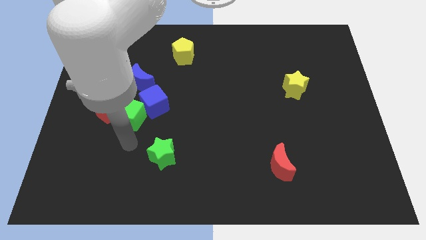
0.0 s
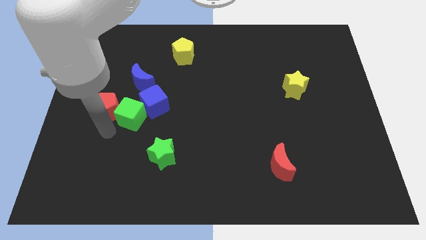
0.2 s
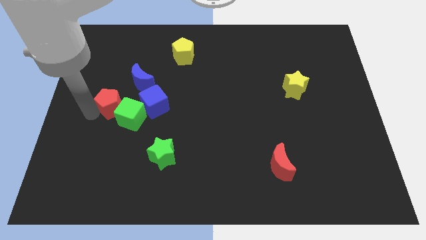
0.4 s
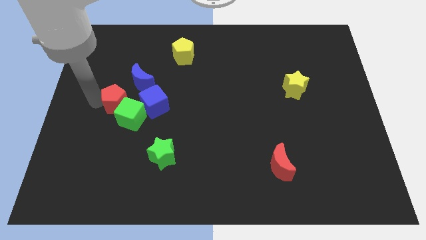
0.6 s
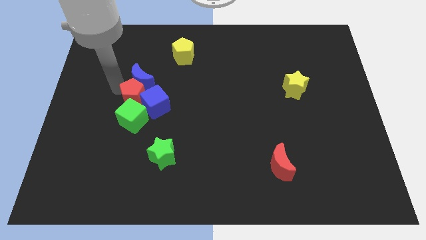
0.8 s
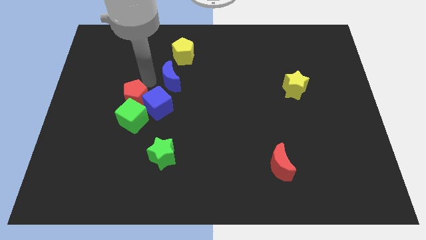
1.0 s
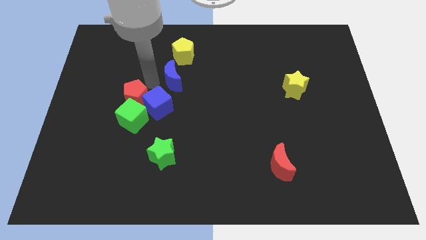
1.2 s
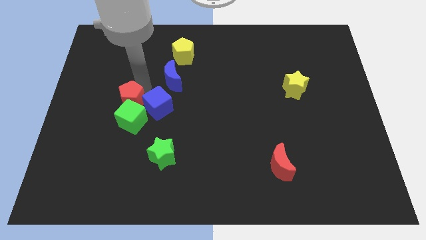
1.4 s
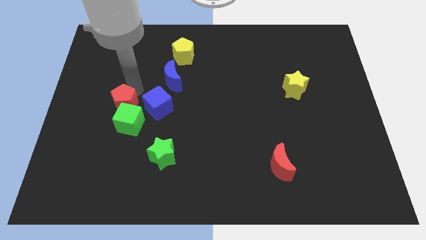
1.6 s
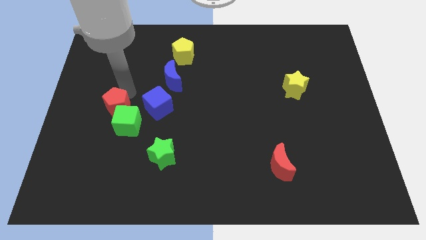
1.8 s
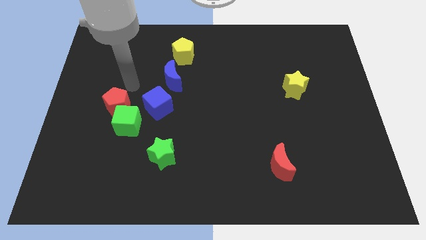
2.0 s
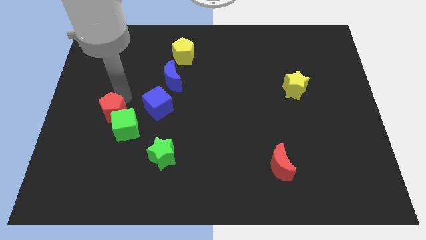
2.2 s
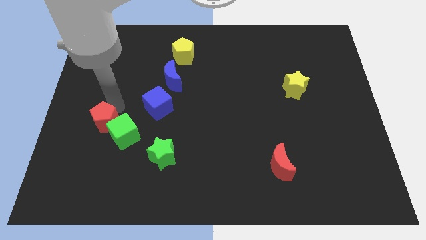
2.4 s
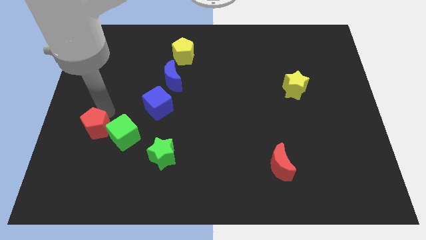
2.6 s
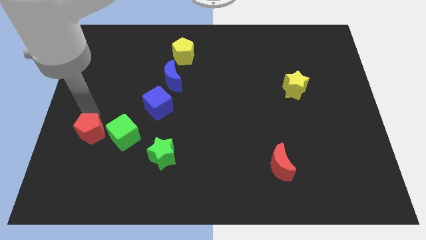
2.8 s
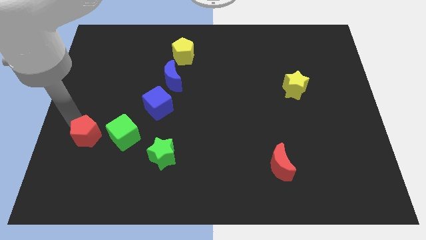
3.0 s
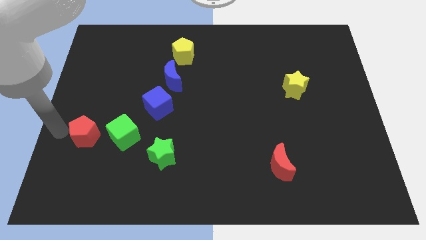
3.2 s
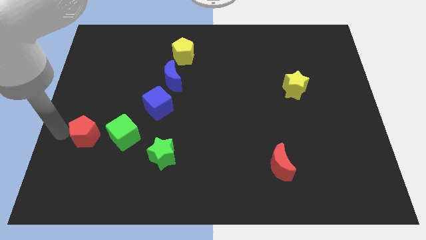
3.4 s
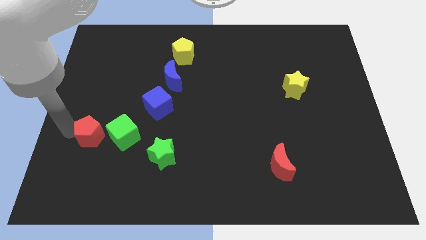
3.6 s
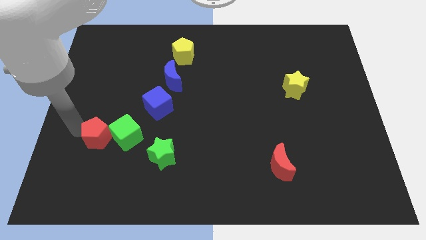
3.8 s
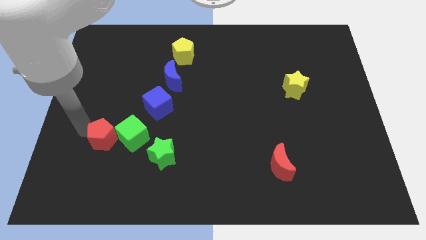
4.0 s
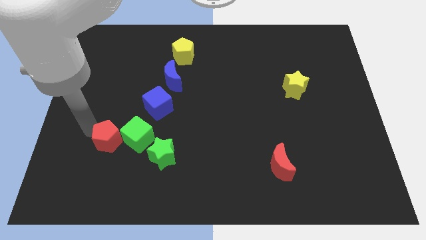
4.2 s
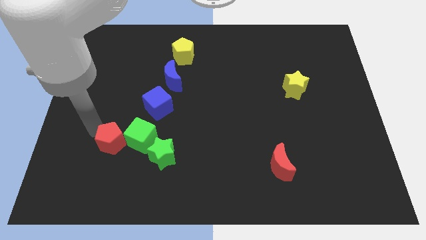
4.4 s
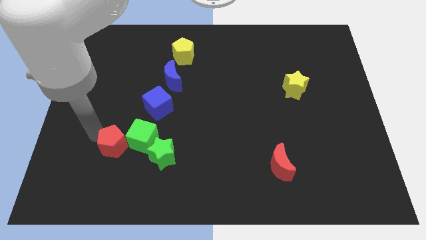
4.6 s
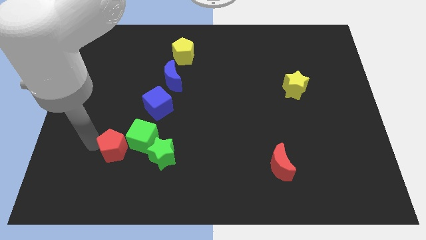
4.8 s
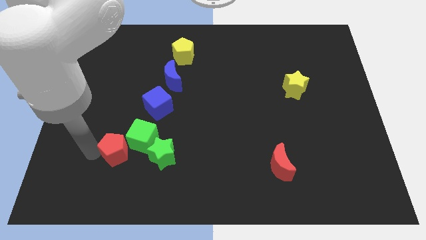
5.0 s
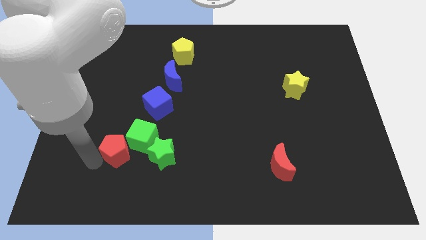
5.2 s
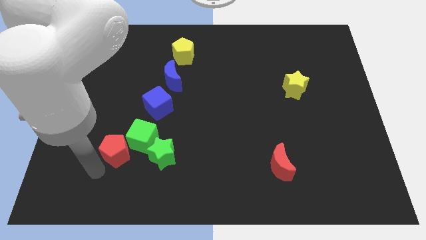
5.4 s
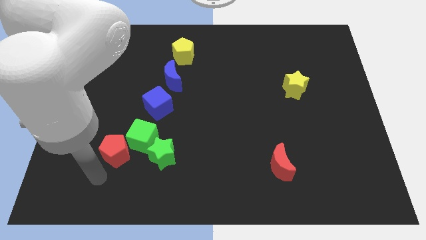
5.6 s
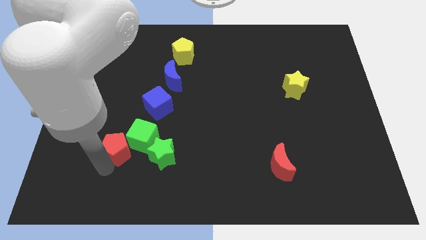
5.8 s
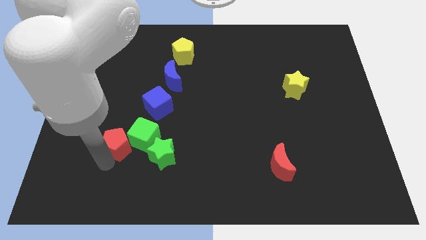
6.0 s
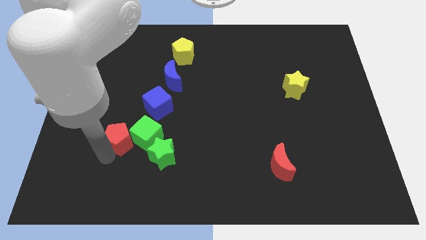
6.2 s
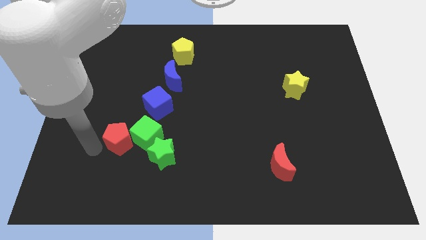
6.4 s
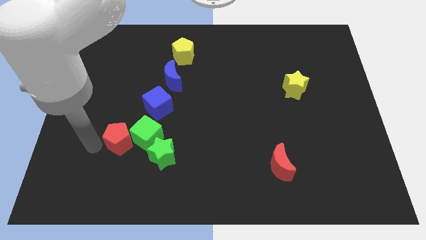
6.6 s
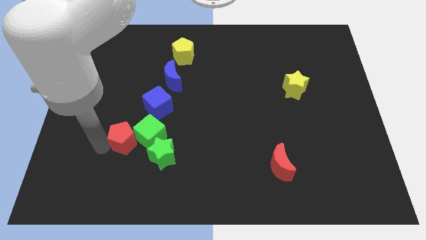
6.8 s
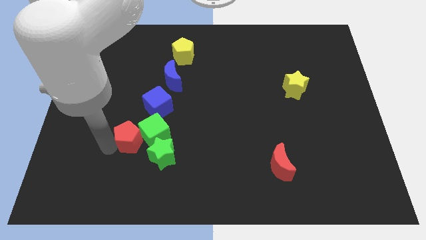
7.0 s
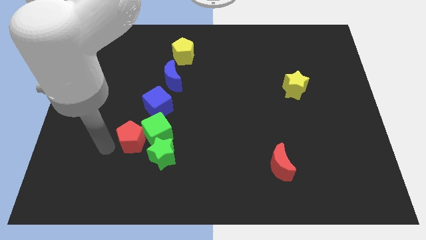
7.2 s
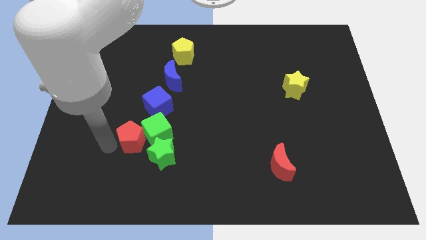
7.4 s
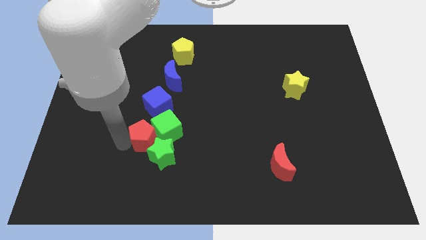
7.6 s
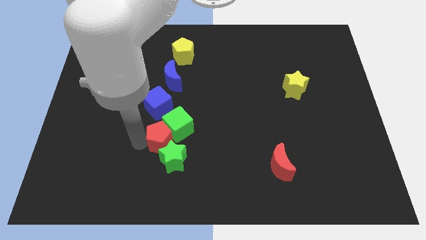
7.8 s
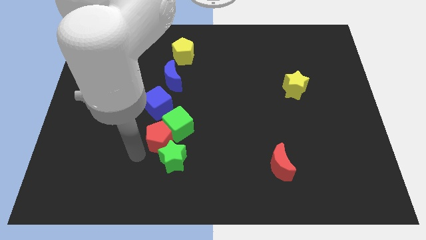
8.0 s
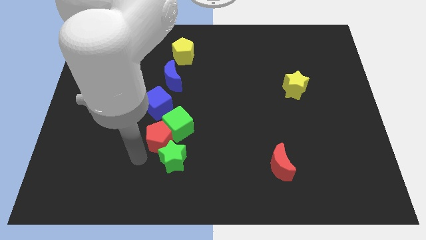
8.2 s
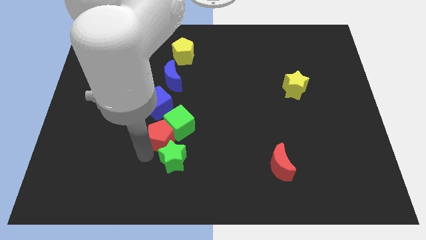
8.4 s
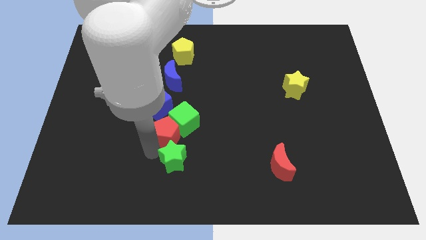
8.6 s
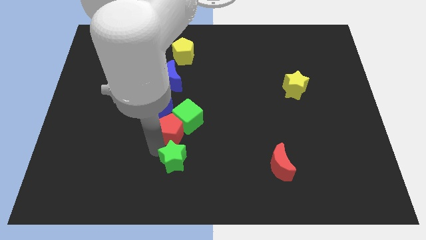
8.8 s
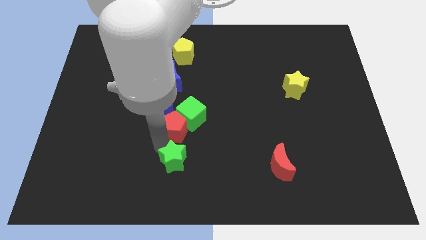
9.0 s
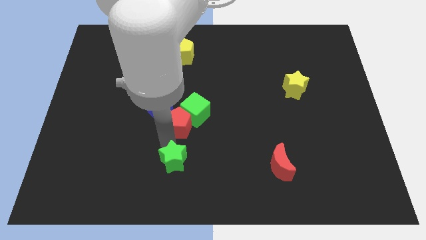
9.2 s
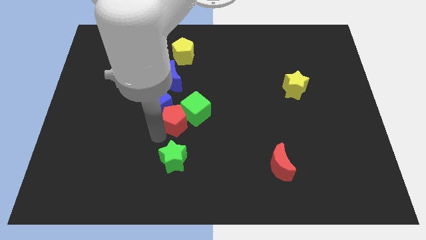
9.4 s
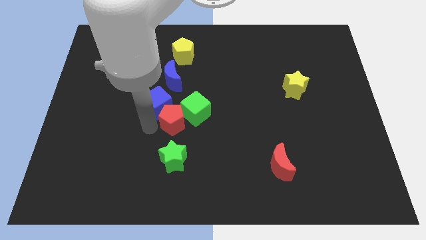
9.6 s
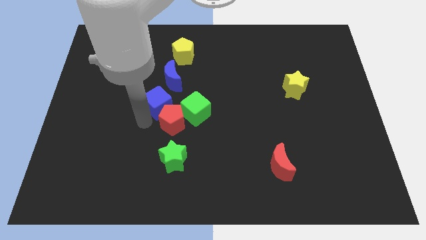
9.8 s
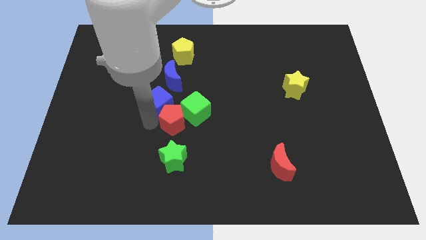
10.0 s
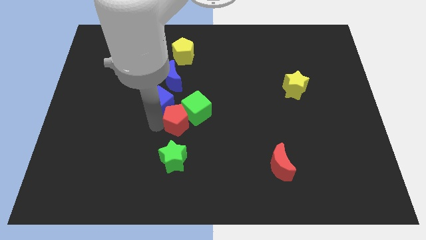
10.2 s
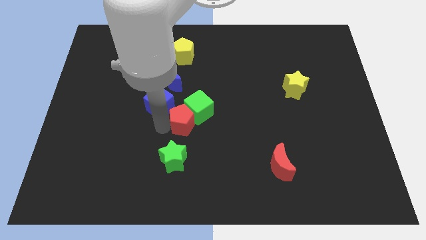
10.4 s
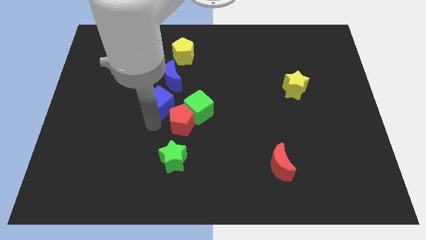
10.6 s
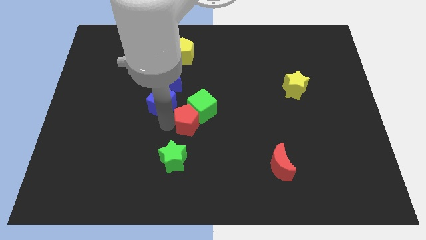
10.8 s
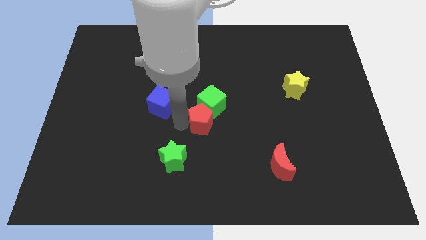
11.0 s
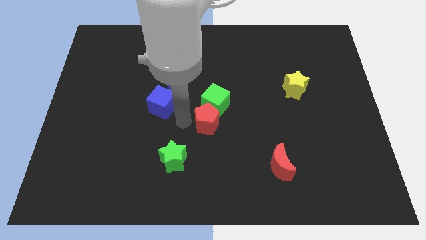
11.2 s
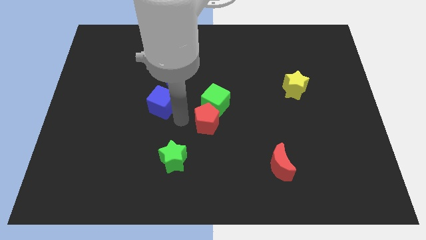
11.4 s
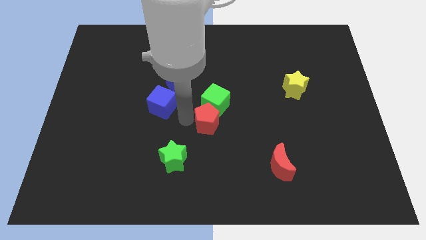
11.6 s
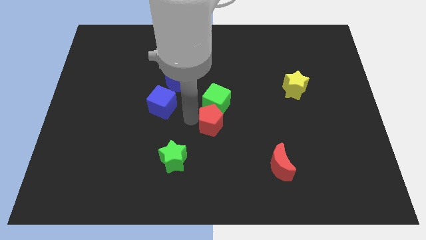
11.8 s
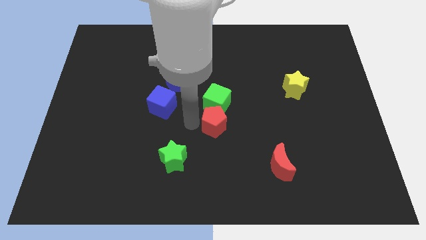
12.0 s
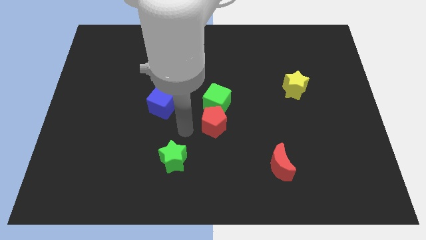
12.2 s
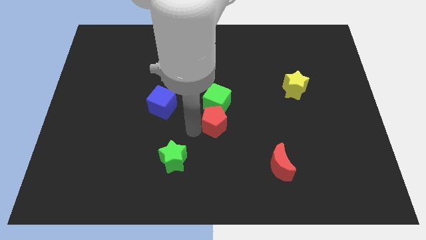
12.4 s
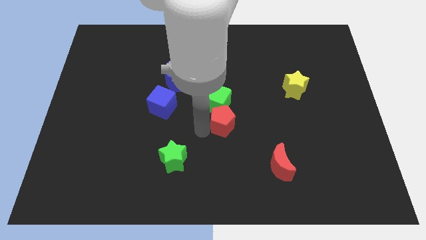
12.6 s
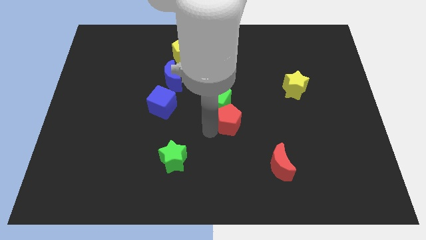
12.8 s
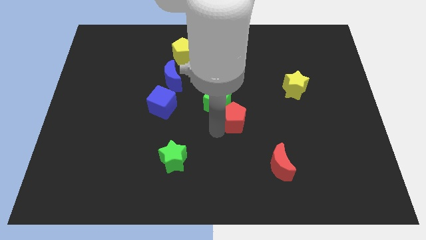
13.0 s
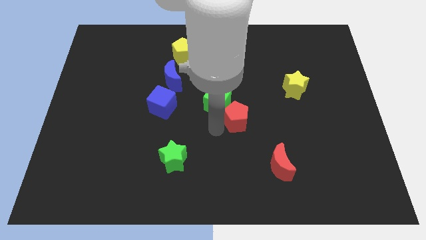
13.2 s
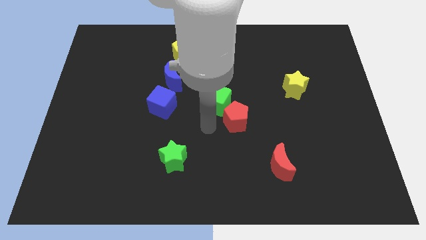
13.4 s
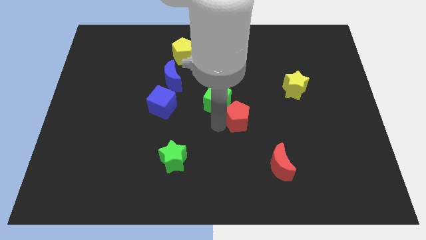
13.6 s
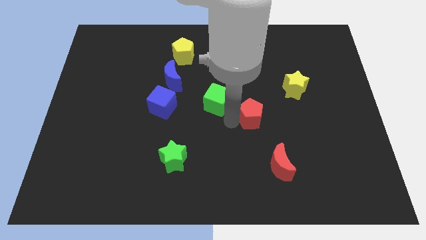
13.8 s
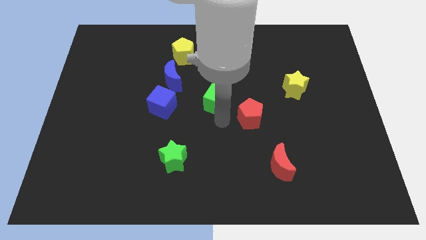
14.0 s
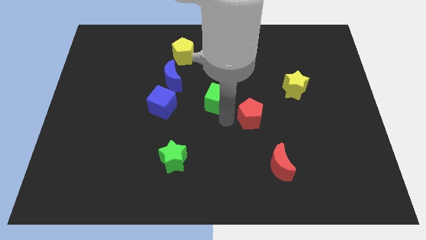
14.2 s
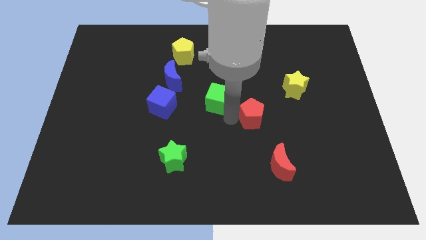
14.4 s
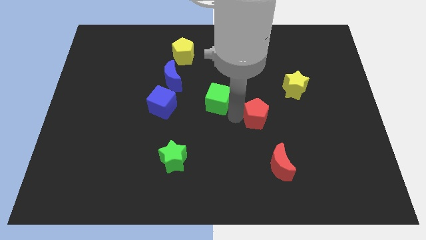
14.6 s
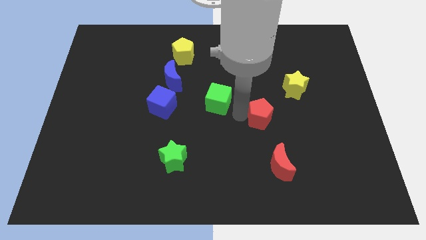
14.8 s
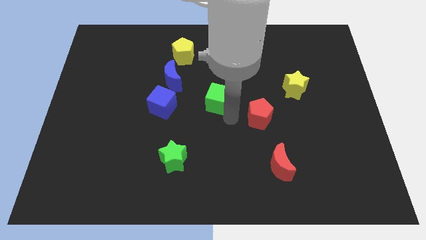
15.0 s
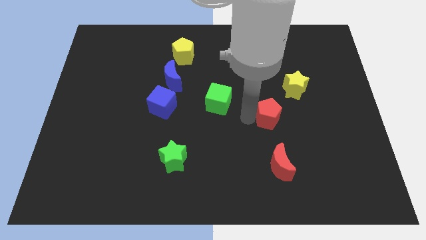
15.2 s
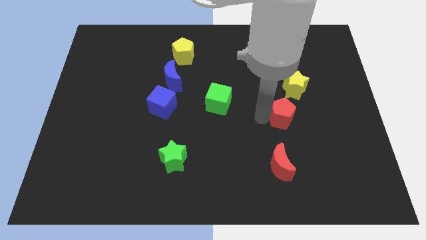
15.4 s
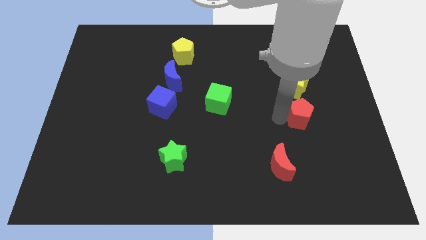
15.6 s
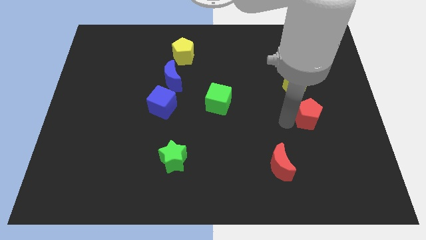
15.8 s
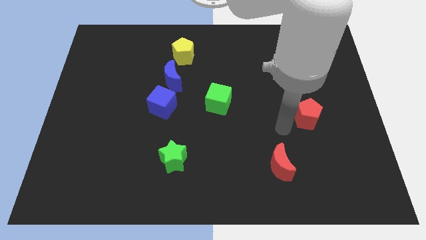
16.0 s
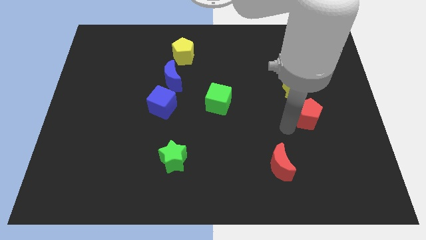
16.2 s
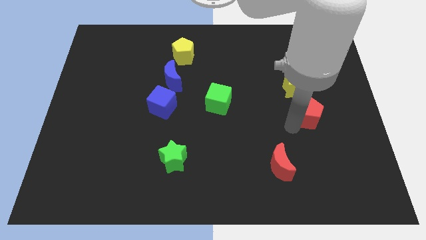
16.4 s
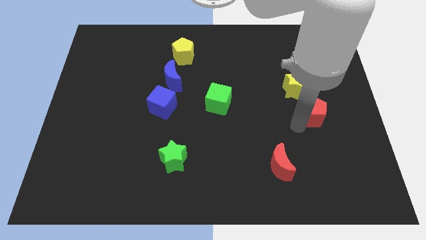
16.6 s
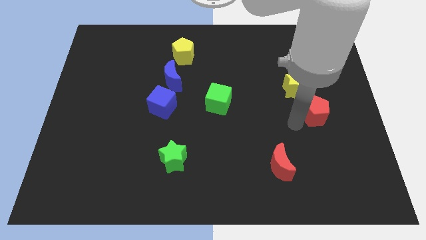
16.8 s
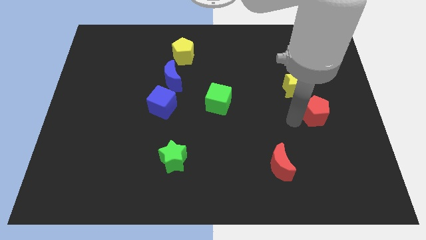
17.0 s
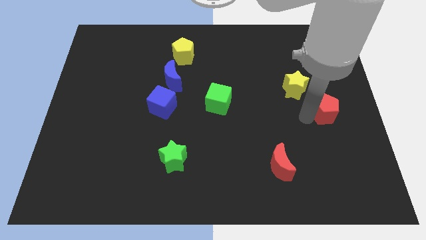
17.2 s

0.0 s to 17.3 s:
move the red pentagon to the right side of the board
